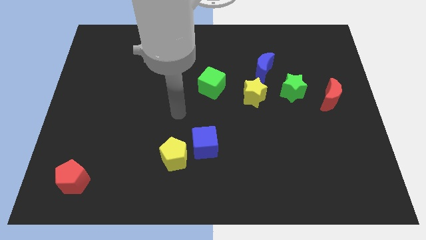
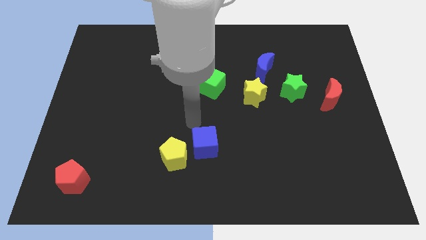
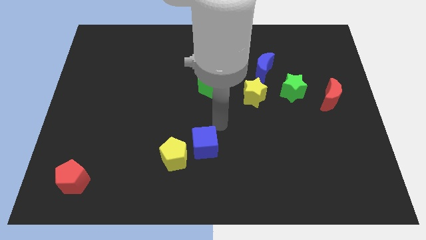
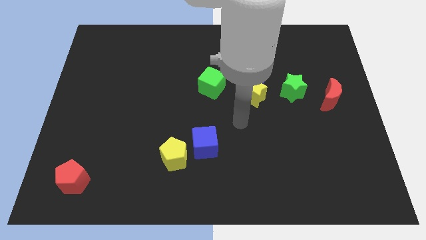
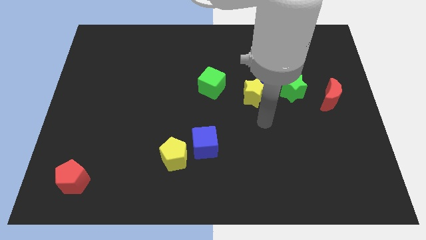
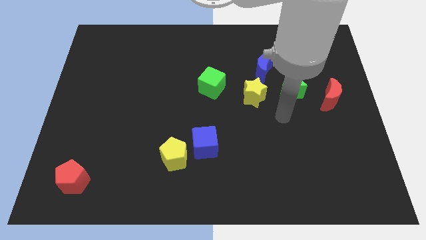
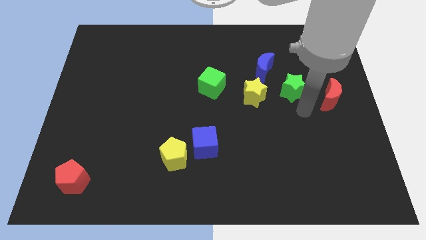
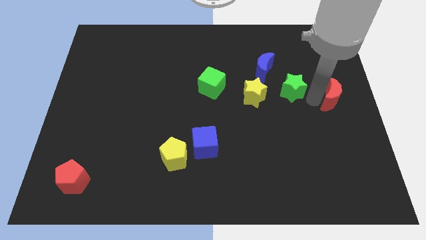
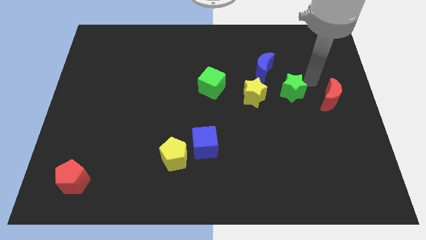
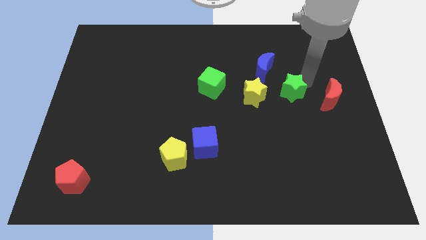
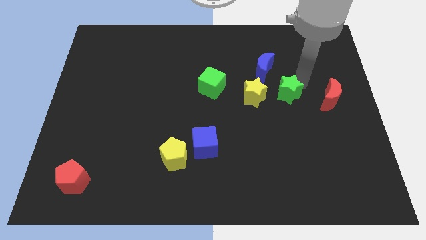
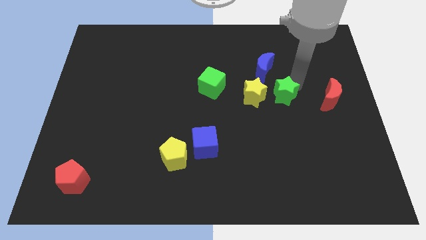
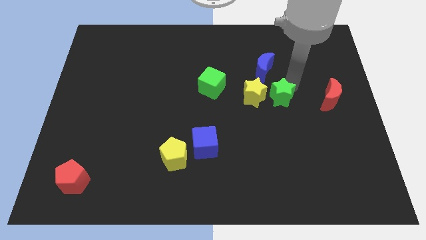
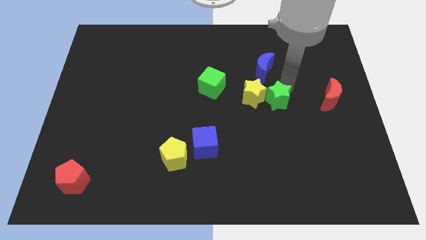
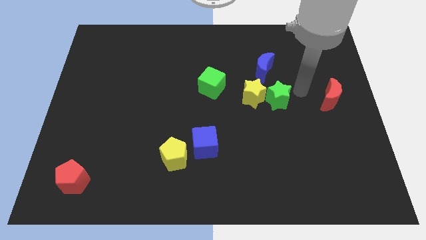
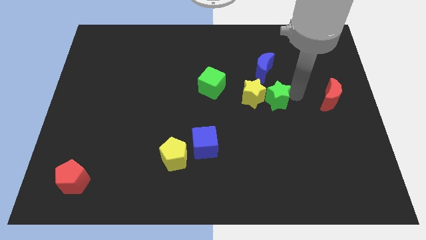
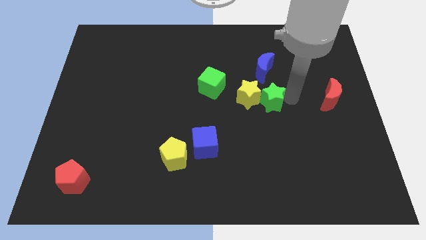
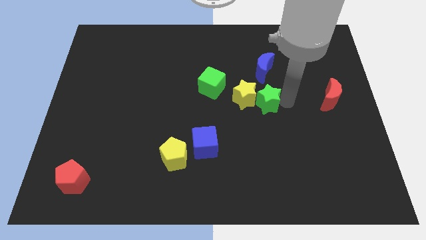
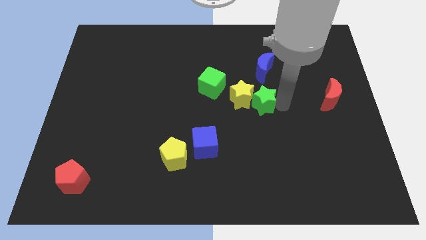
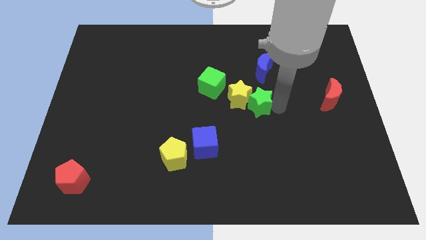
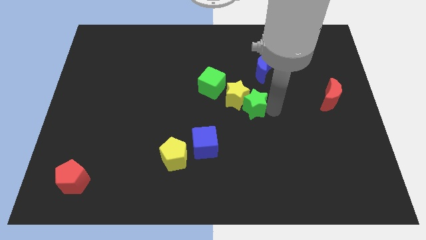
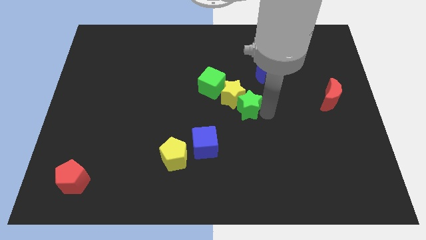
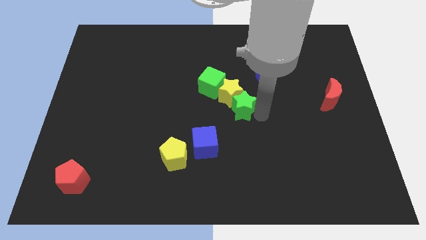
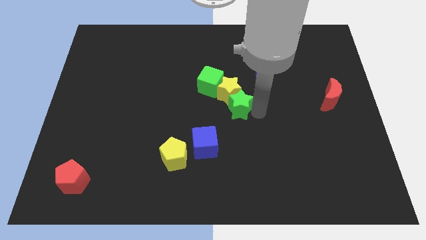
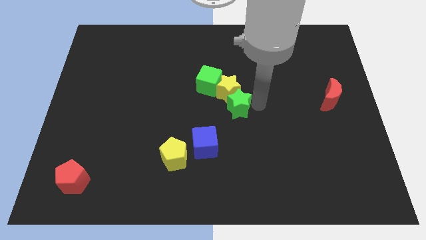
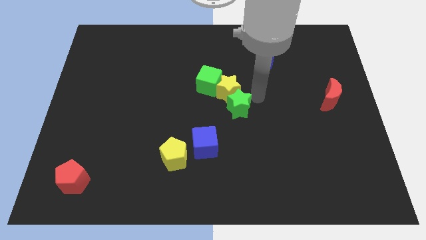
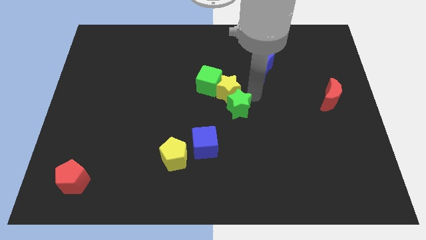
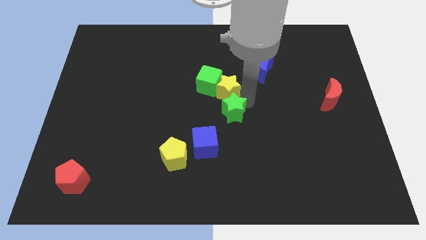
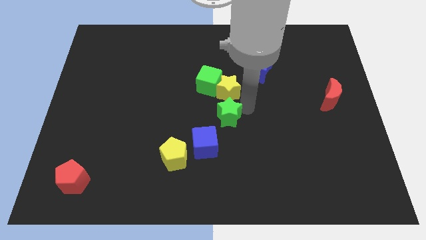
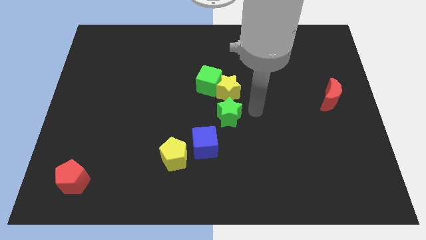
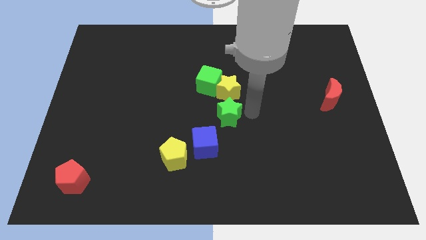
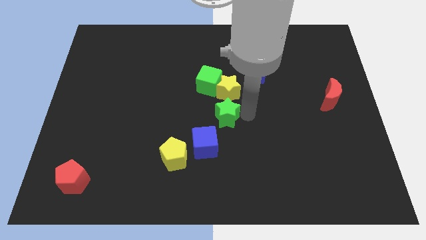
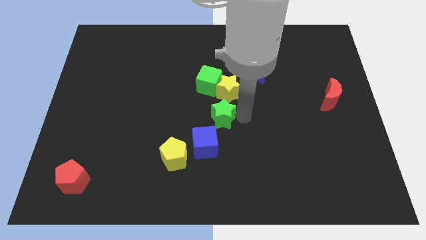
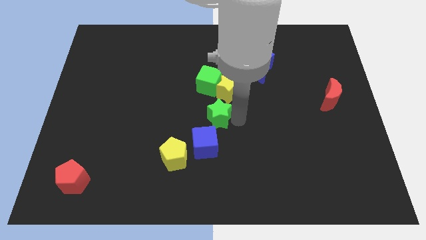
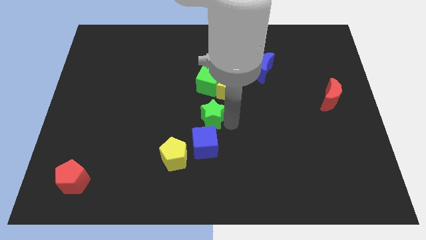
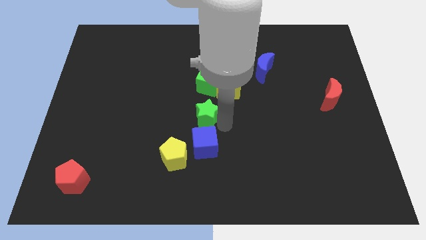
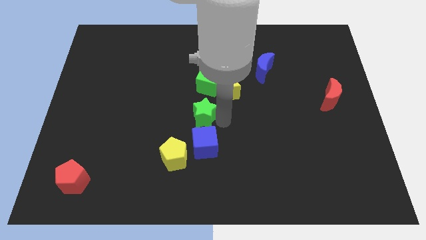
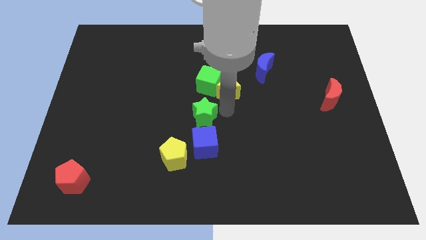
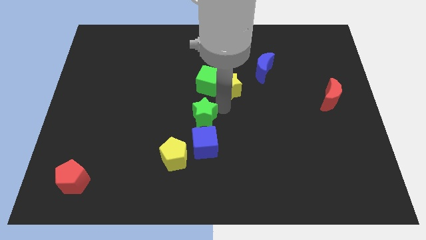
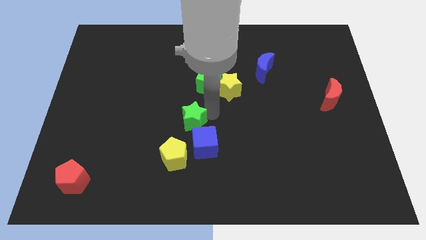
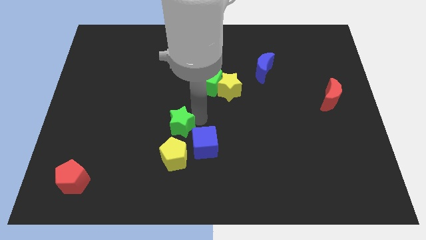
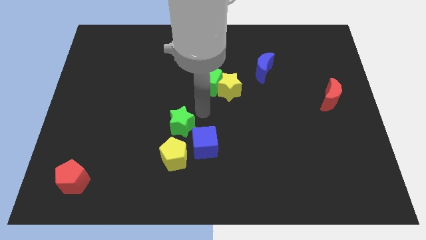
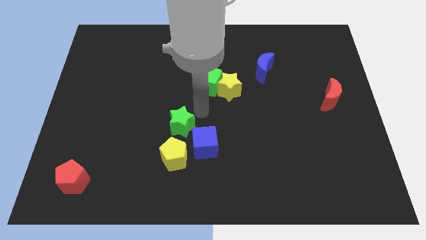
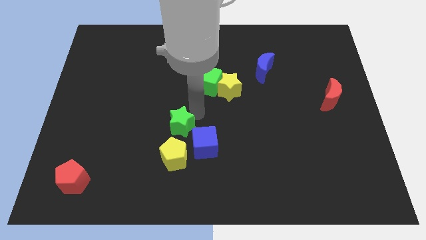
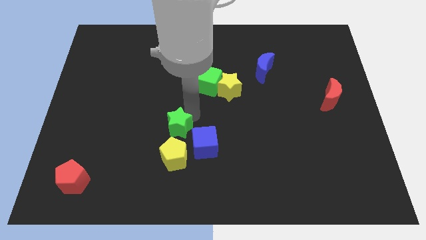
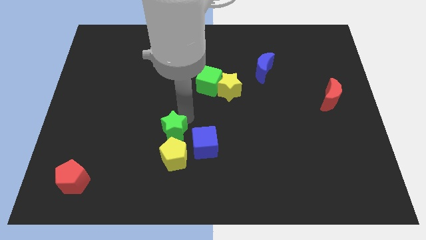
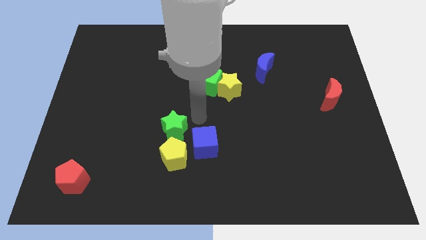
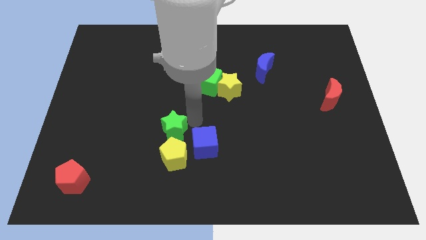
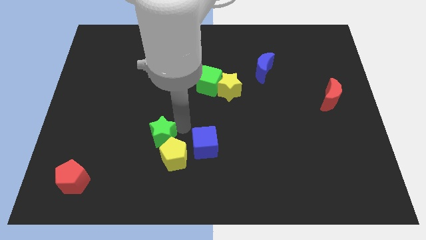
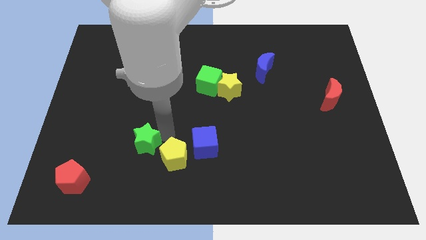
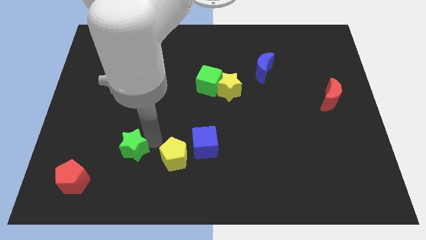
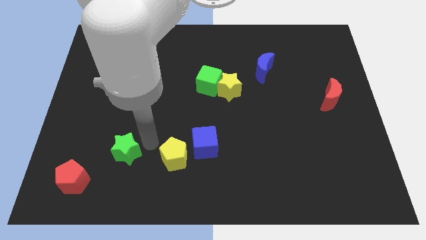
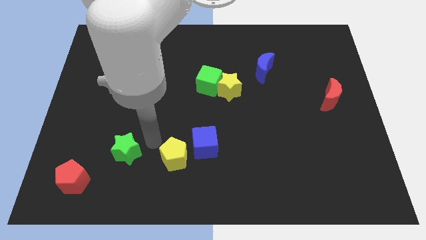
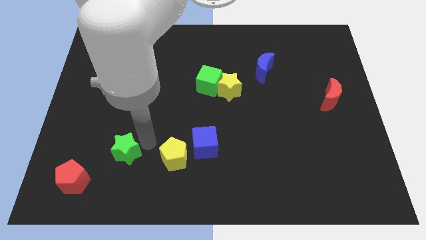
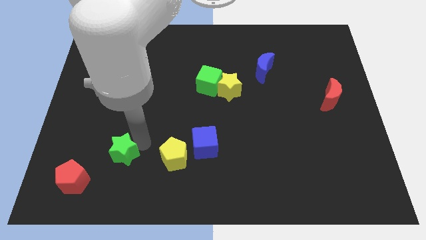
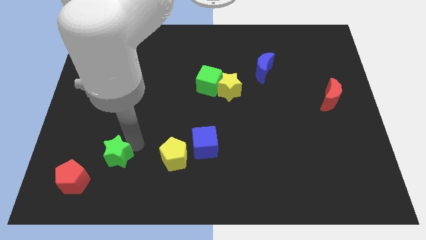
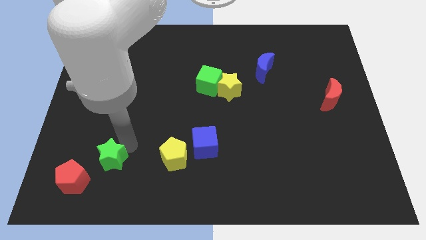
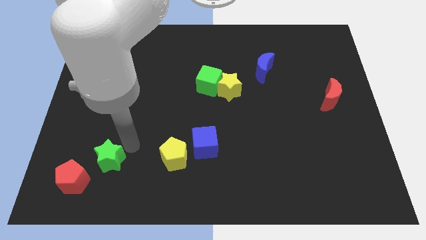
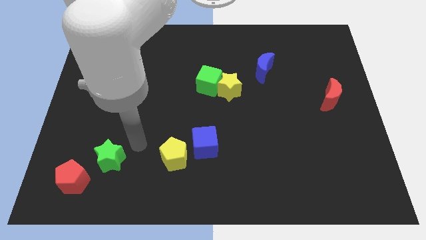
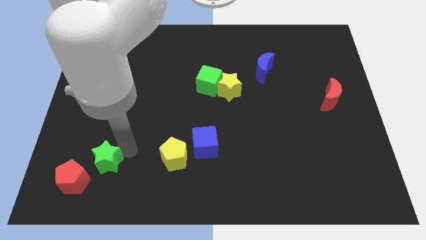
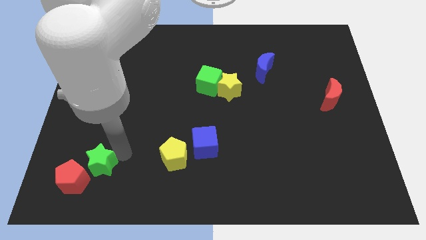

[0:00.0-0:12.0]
slide the green star towards the red pentagon

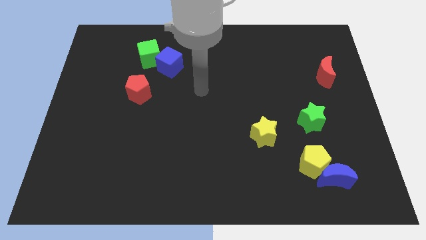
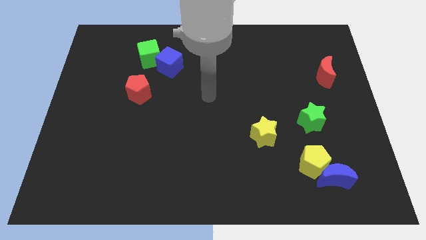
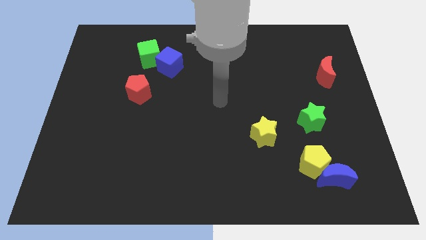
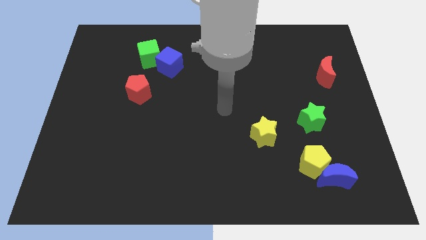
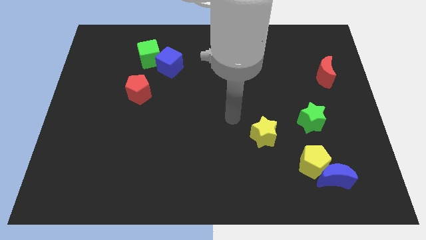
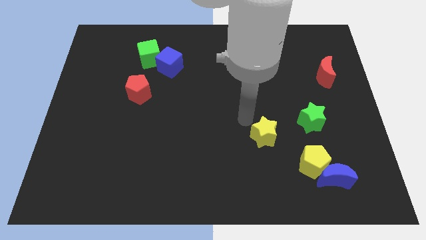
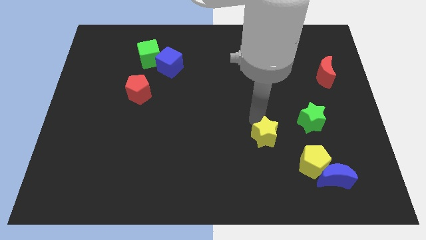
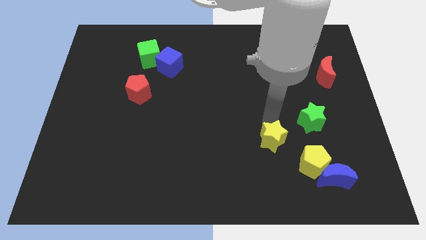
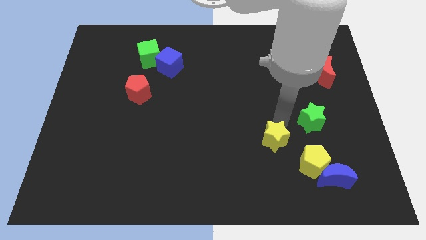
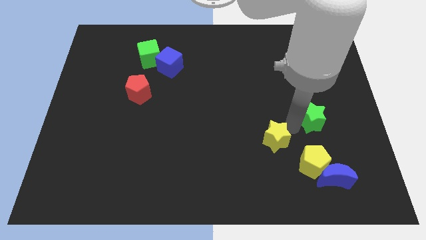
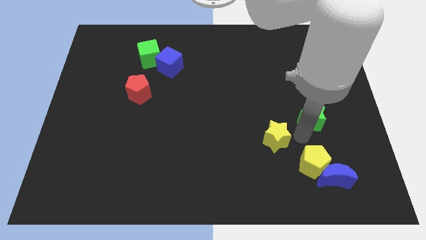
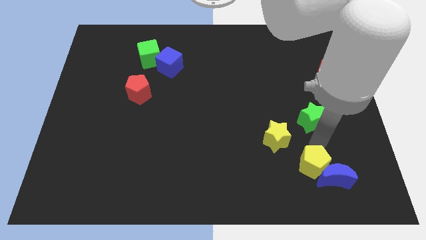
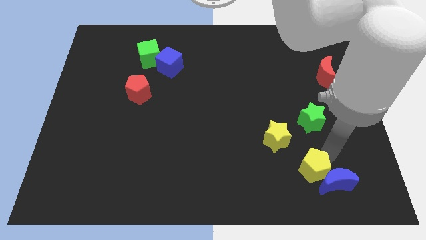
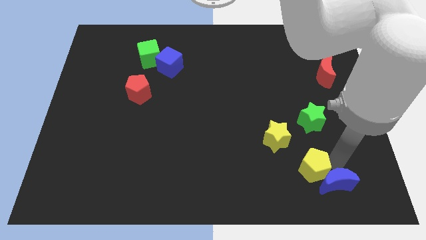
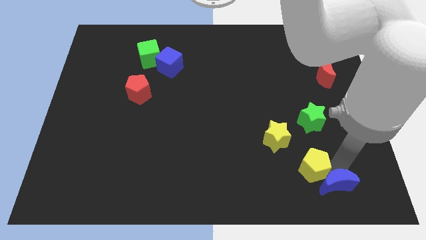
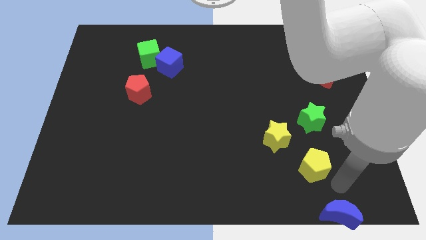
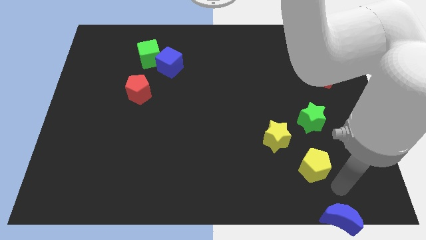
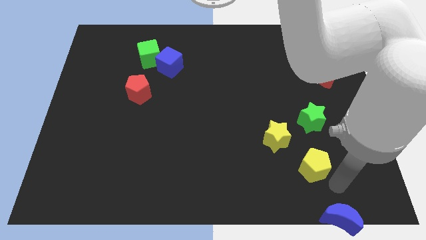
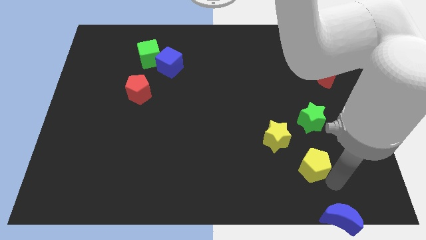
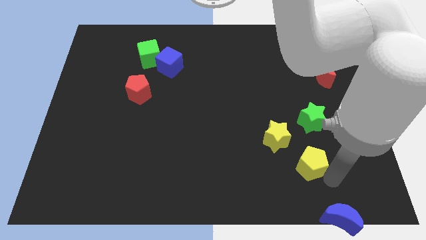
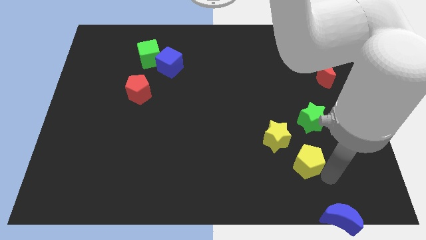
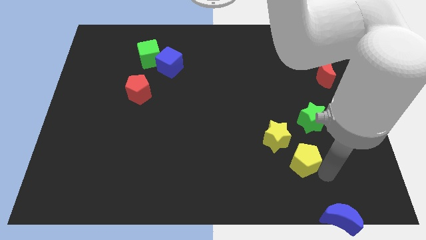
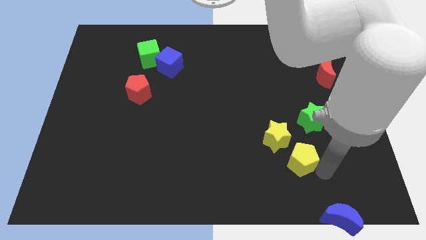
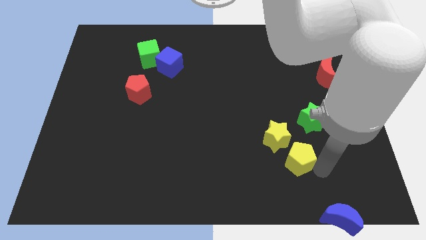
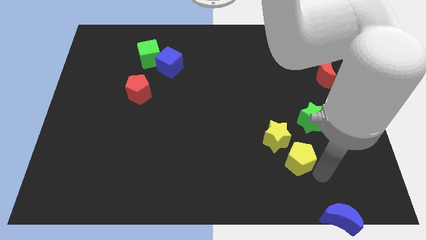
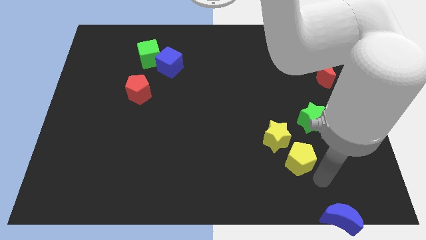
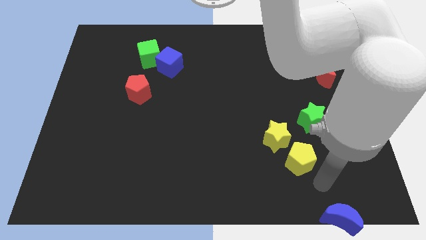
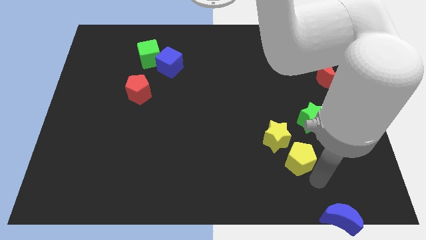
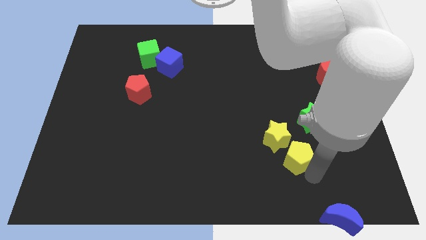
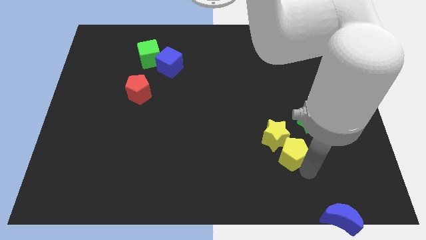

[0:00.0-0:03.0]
slide the yellow pentagon towards the yellow star
